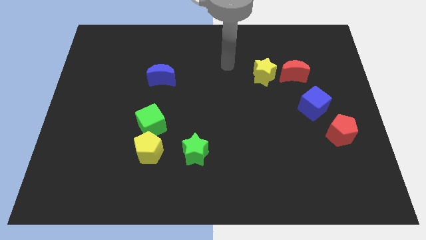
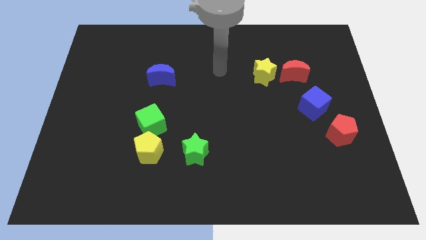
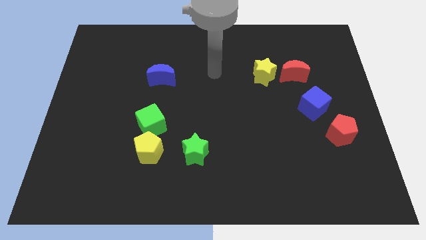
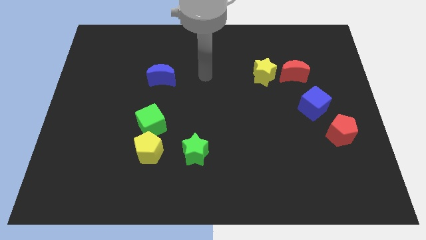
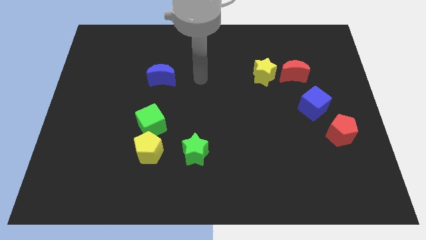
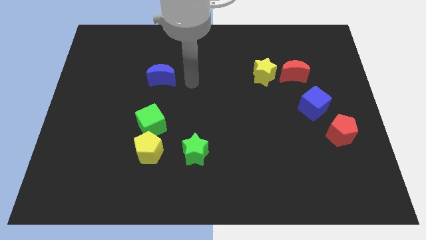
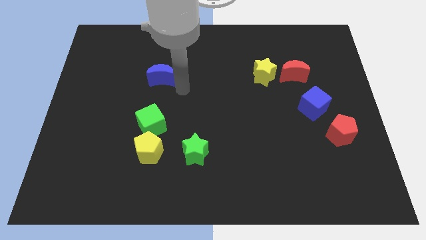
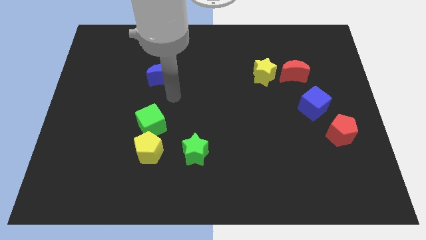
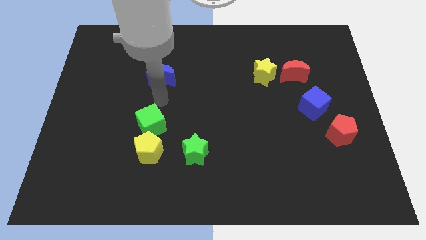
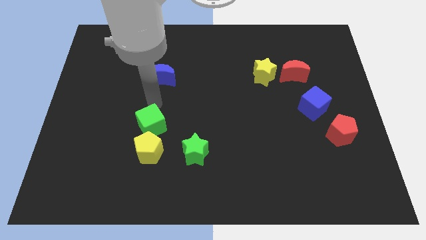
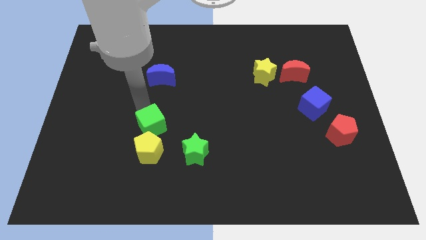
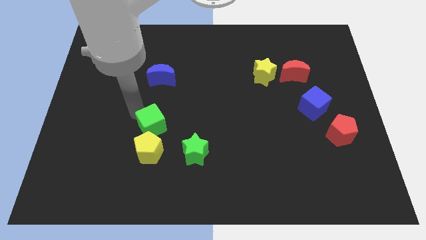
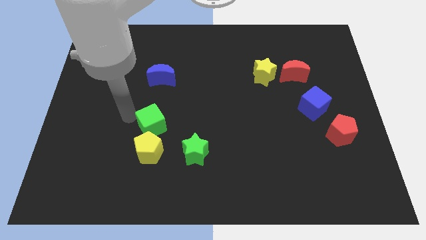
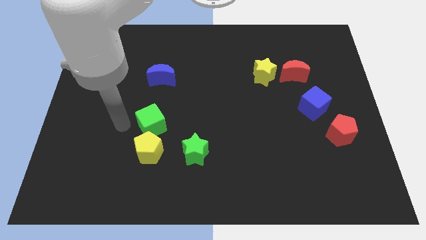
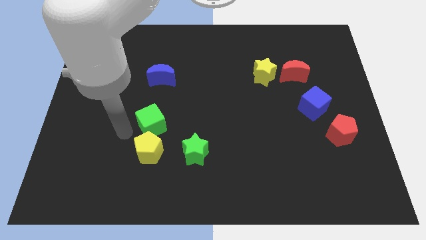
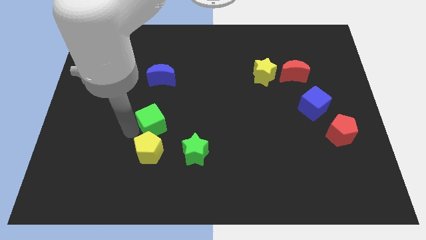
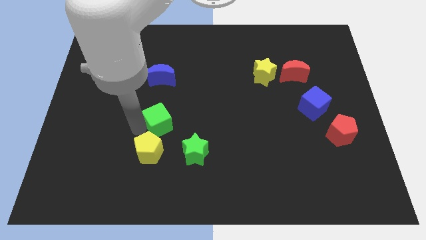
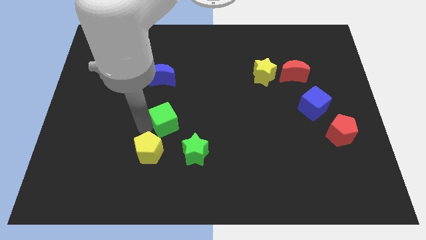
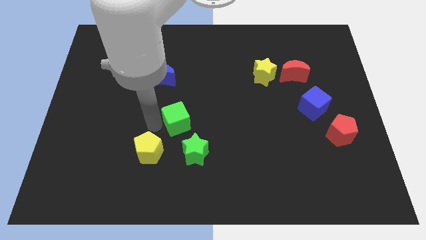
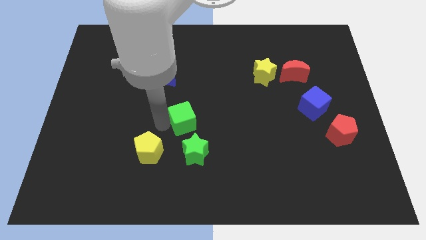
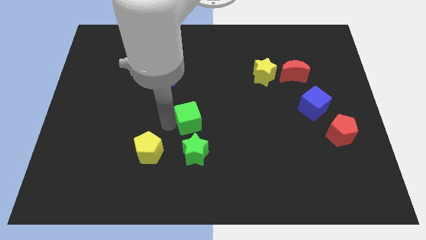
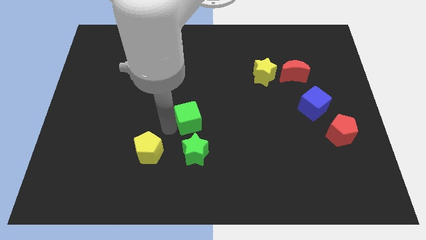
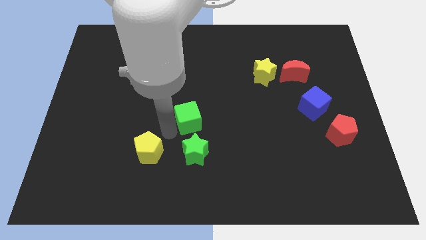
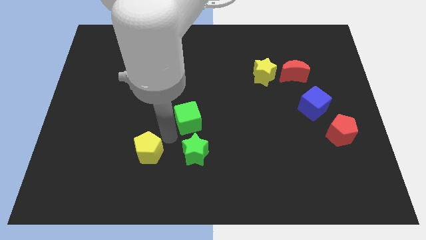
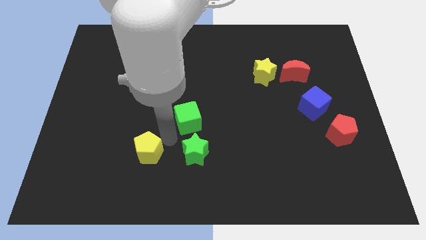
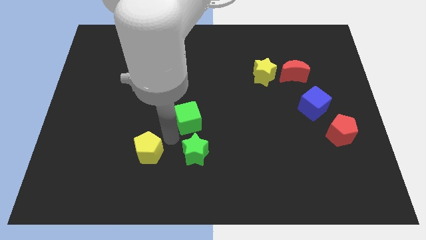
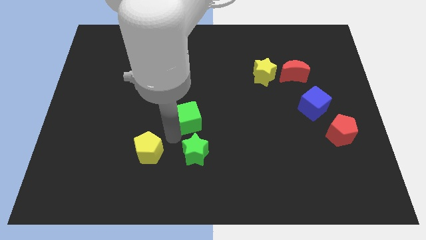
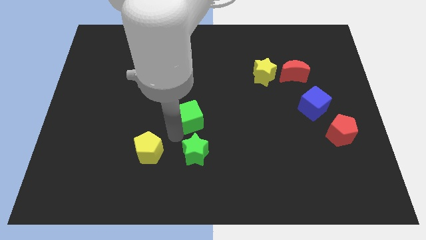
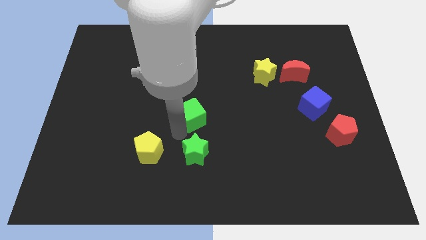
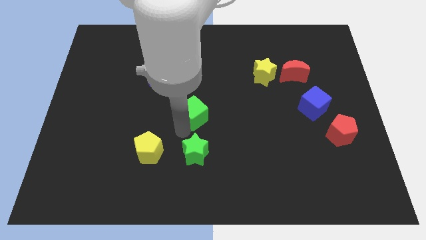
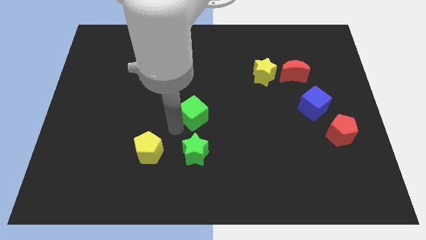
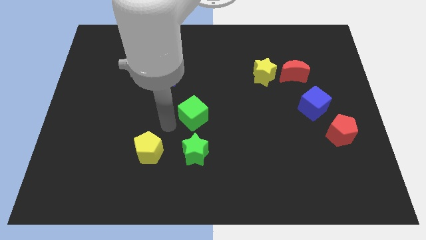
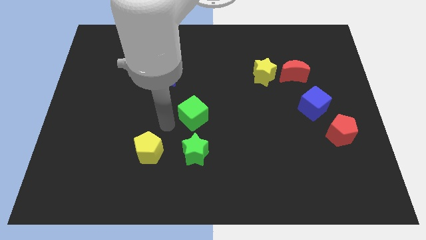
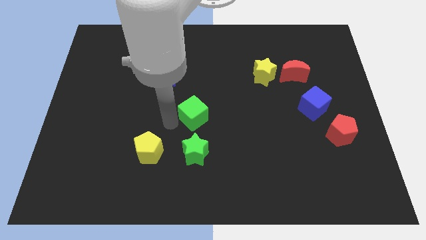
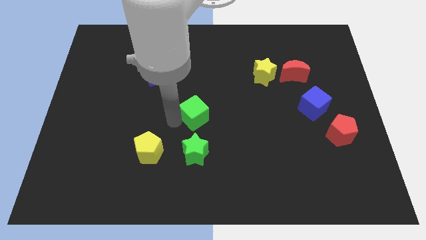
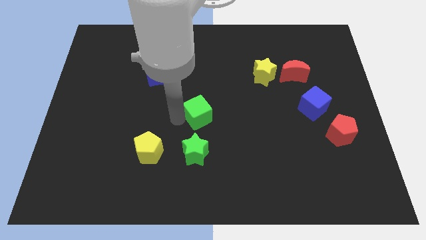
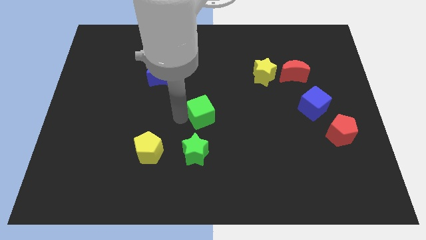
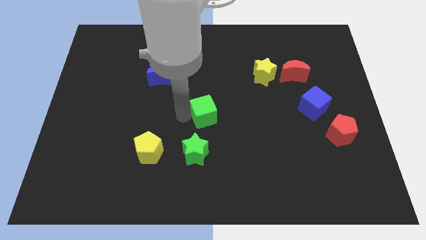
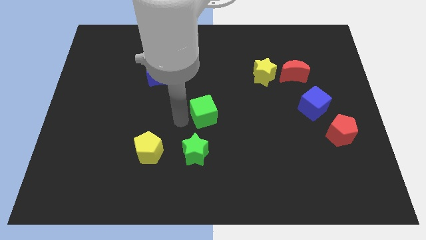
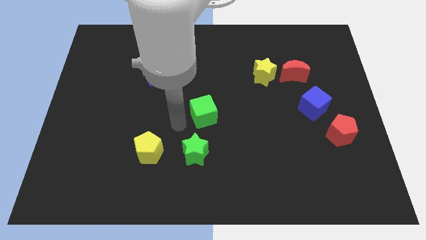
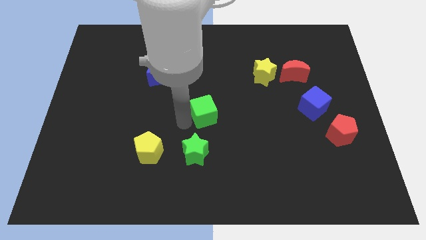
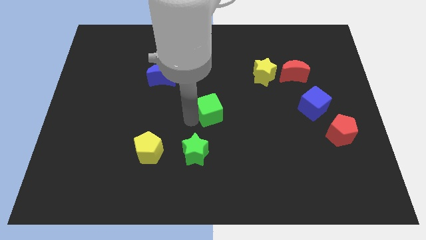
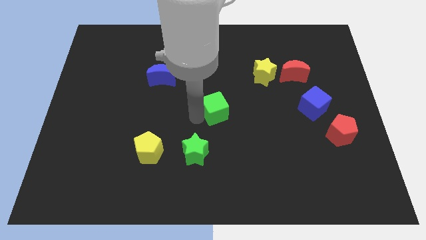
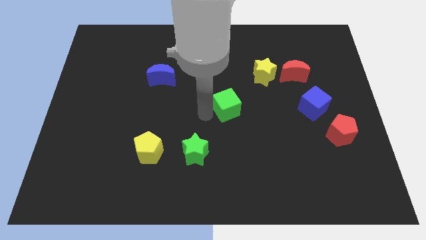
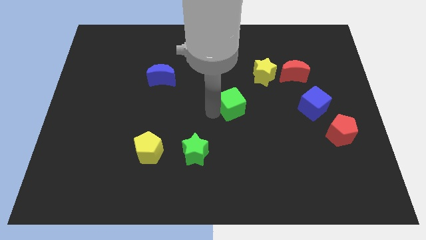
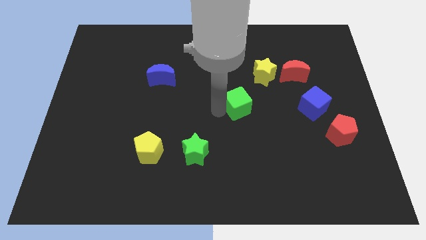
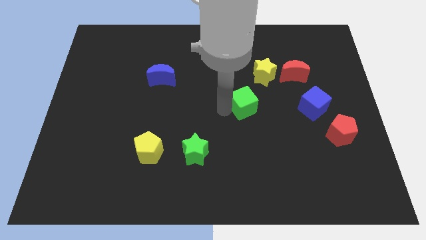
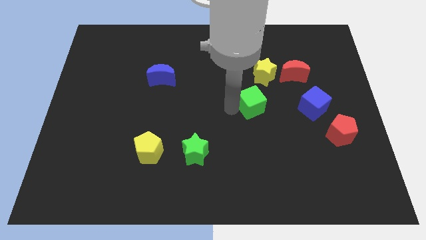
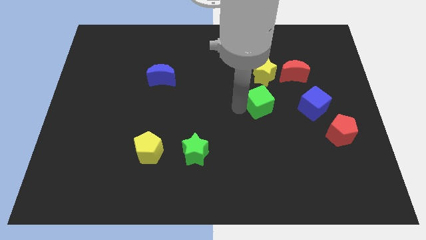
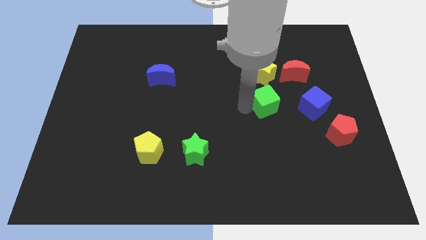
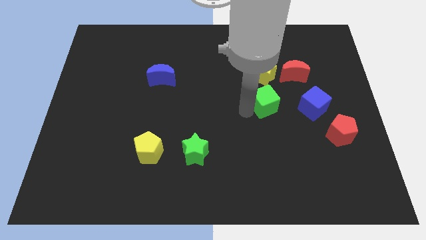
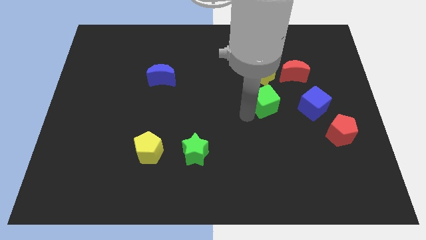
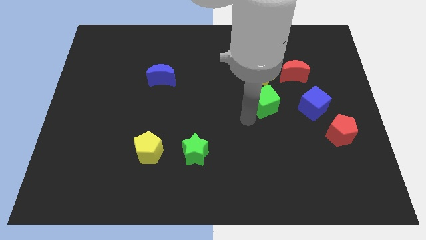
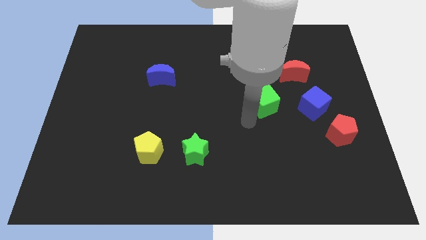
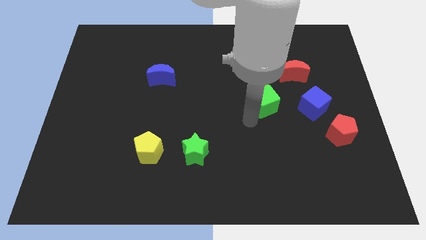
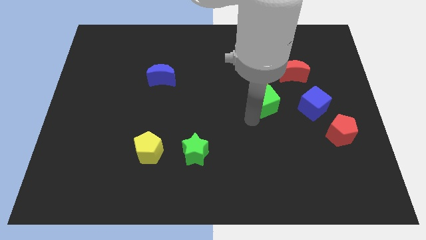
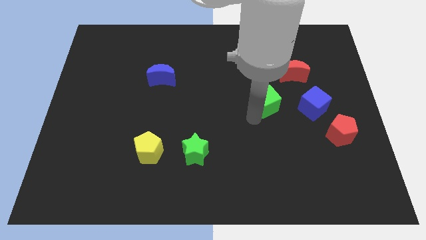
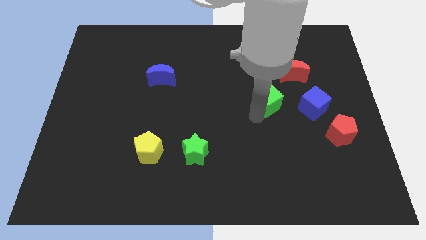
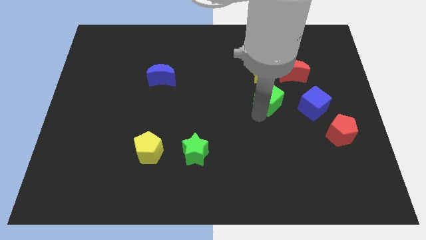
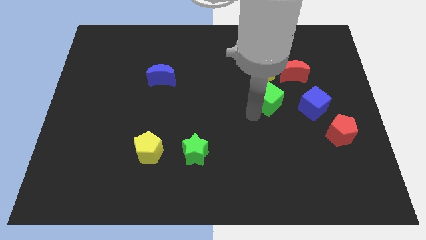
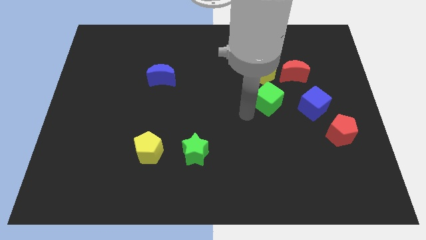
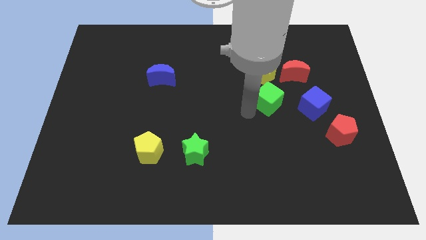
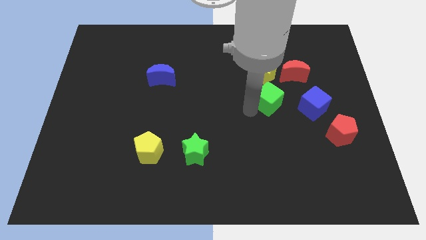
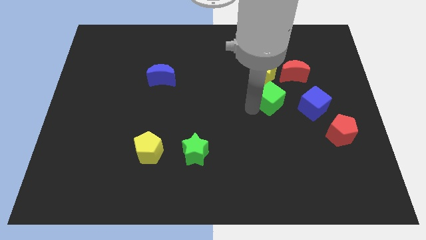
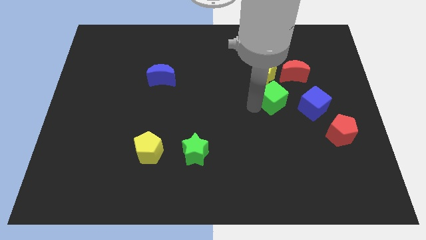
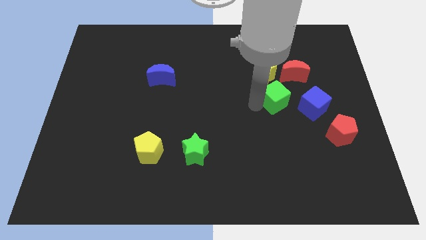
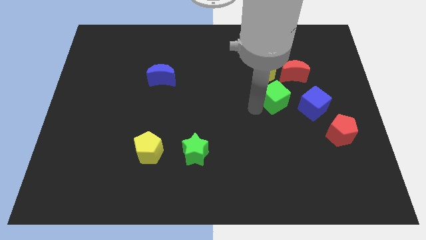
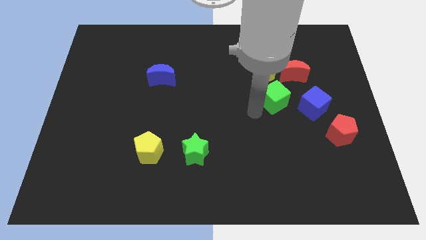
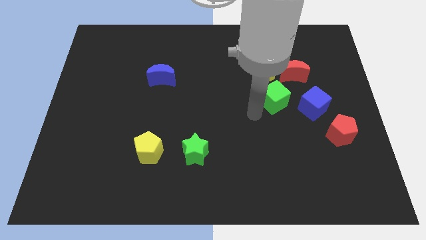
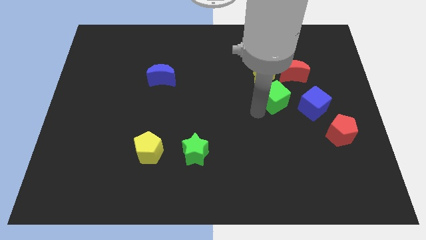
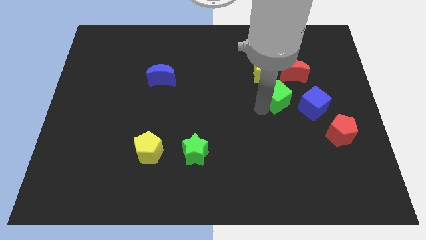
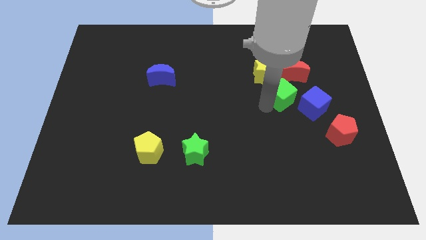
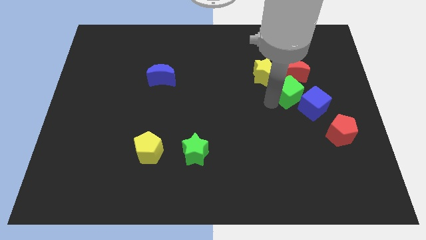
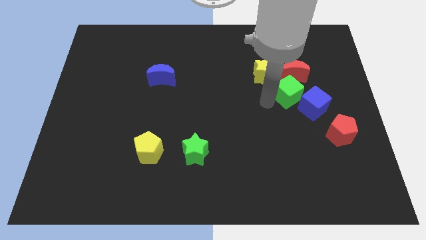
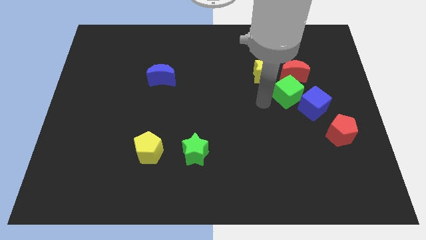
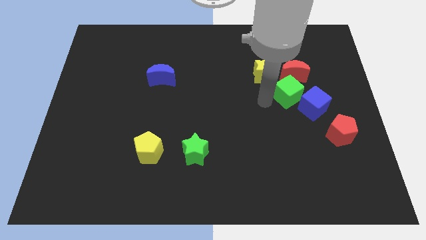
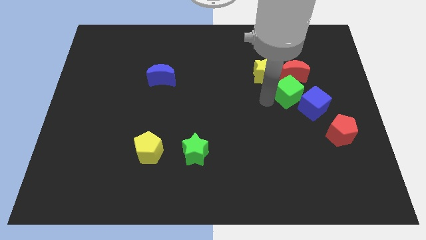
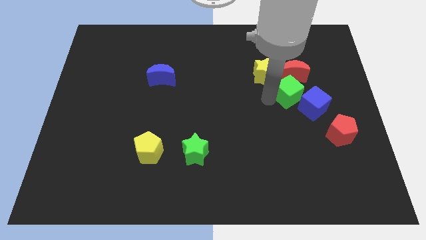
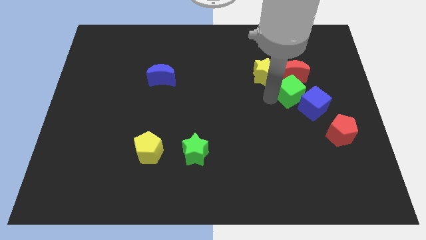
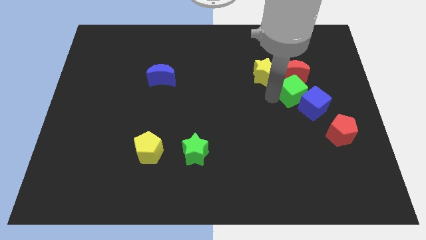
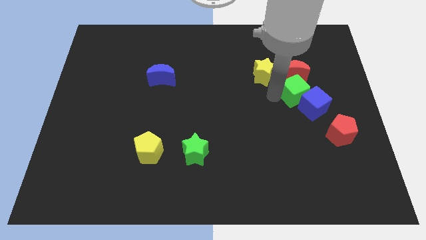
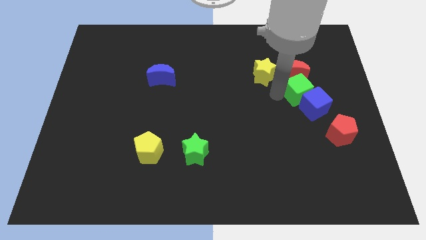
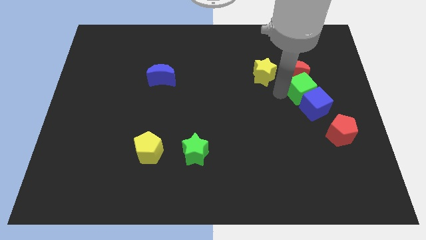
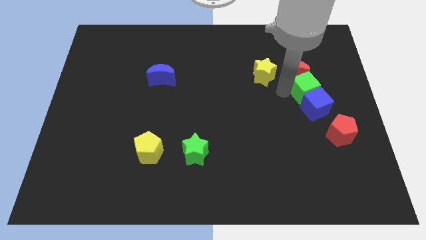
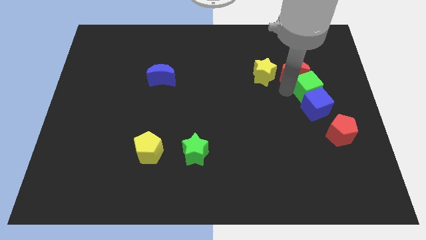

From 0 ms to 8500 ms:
push the green cube to the top right of the blue cube
